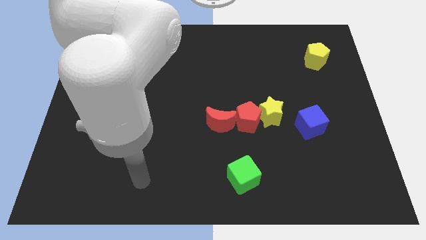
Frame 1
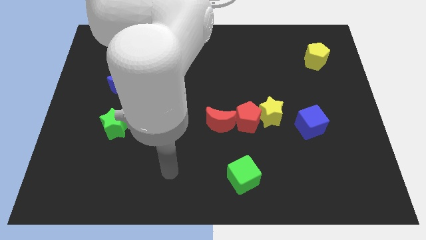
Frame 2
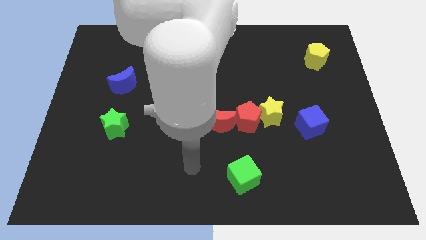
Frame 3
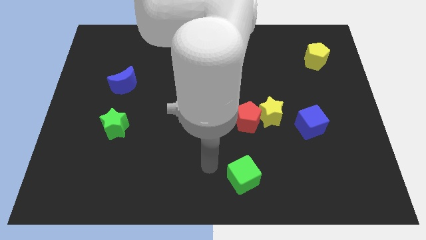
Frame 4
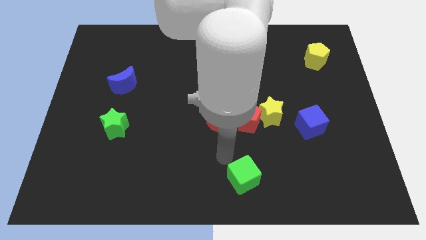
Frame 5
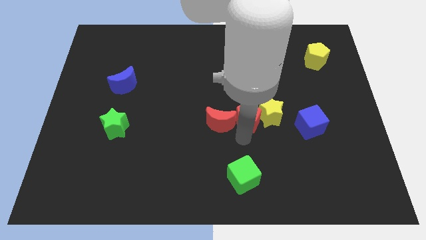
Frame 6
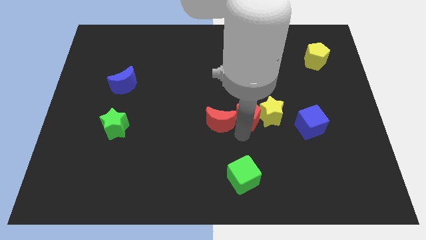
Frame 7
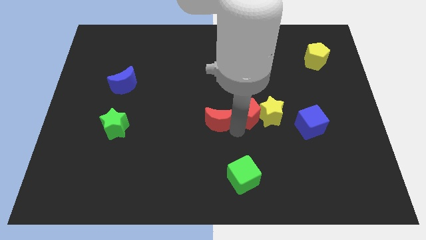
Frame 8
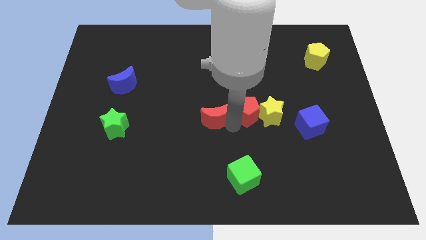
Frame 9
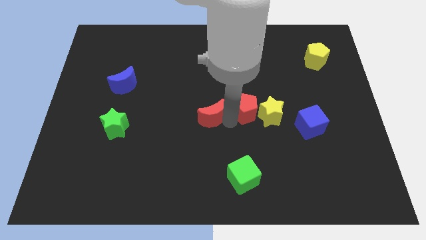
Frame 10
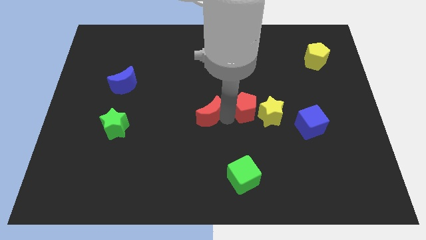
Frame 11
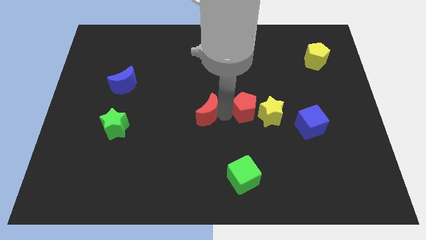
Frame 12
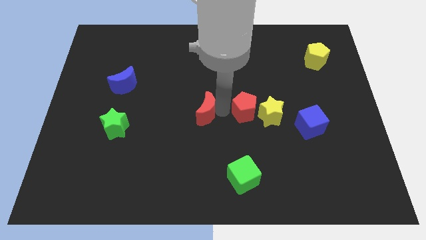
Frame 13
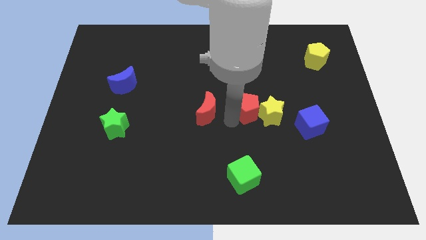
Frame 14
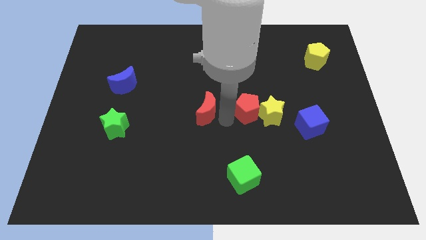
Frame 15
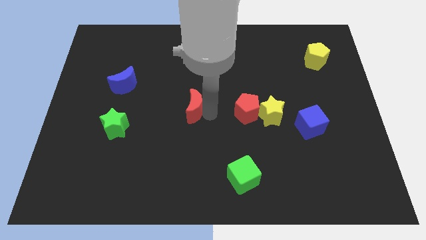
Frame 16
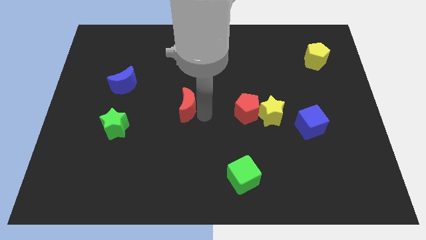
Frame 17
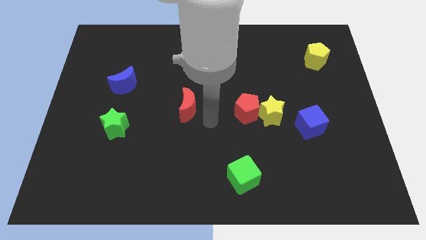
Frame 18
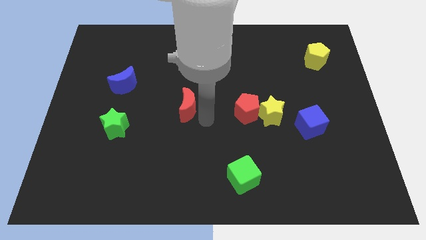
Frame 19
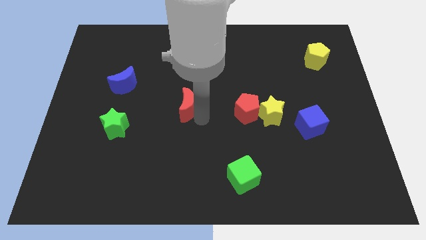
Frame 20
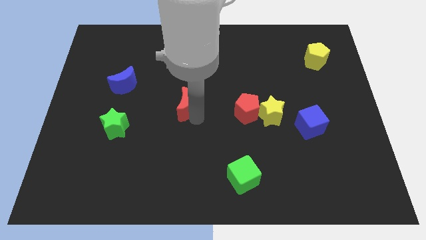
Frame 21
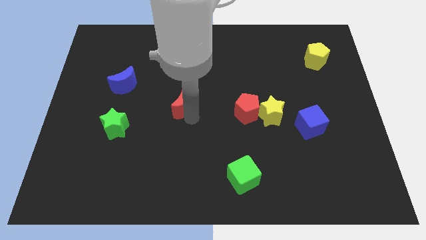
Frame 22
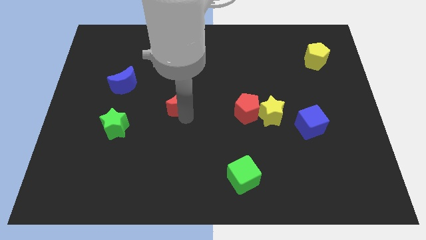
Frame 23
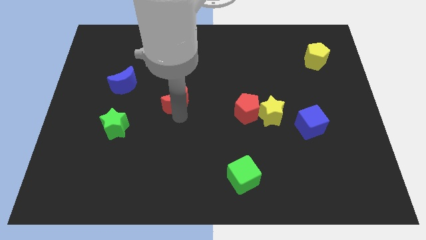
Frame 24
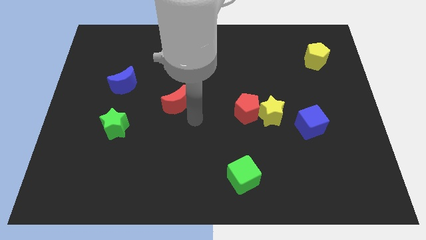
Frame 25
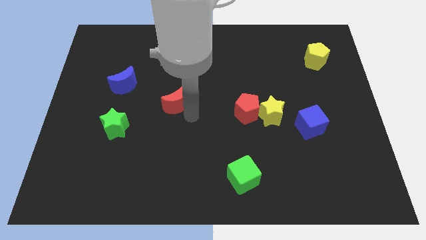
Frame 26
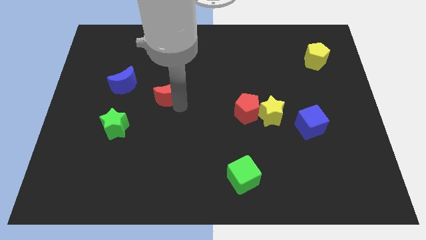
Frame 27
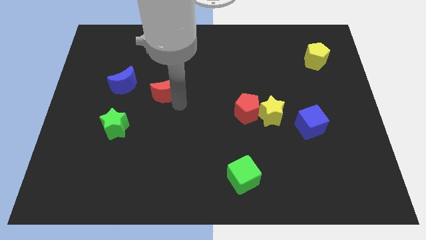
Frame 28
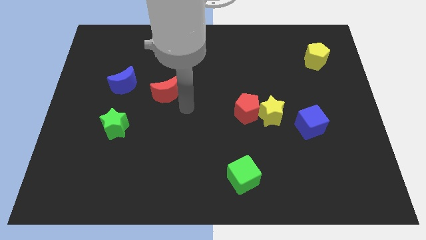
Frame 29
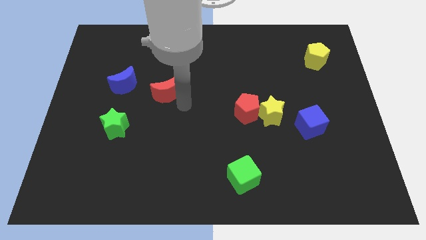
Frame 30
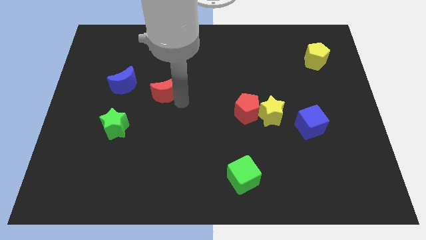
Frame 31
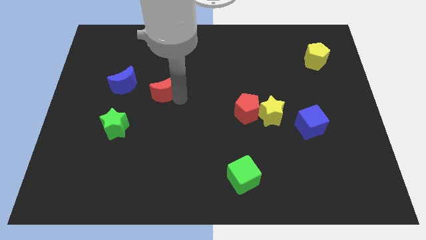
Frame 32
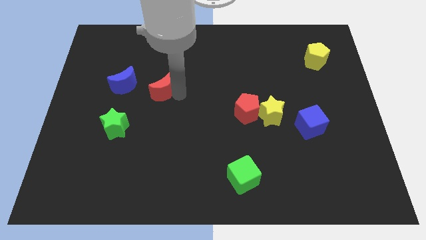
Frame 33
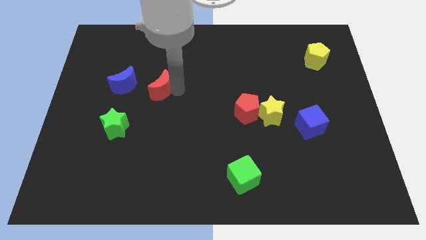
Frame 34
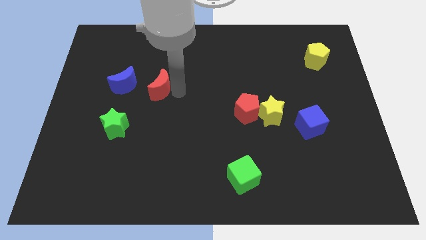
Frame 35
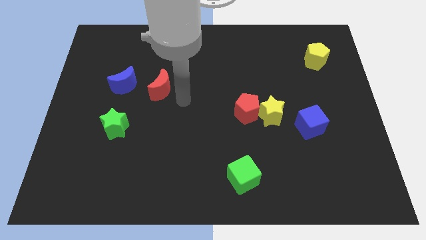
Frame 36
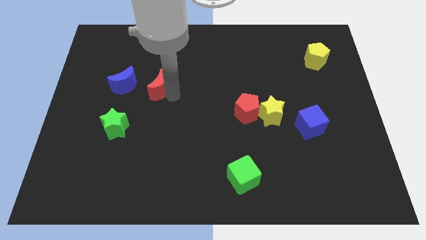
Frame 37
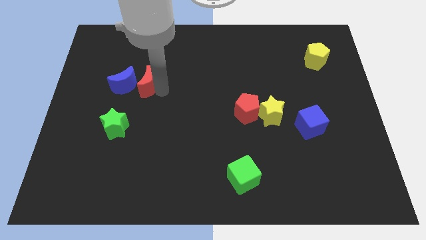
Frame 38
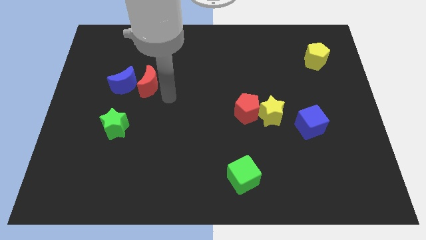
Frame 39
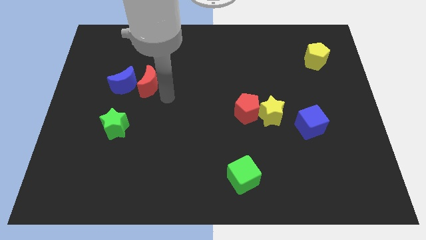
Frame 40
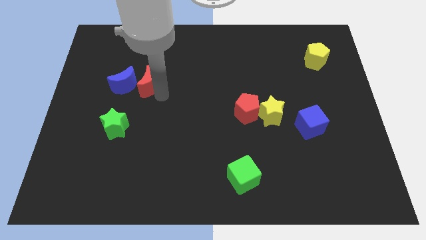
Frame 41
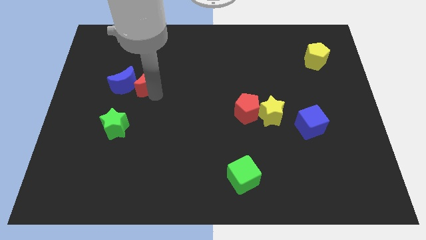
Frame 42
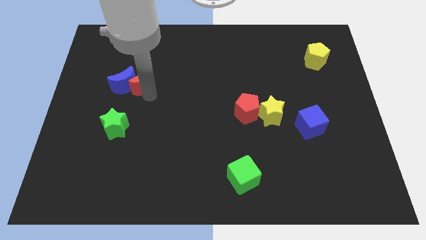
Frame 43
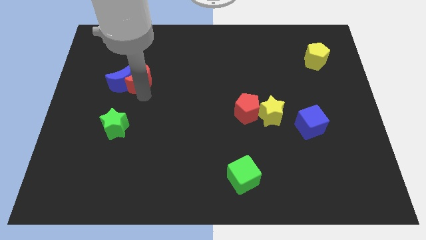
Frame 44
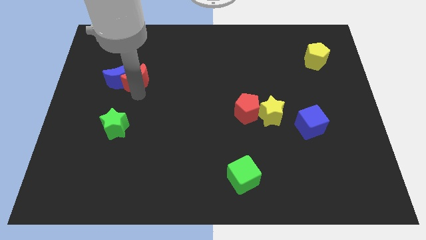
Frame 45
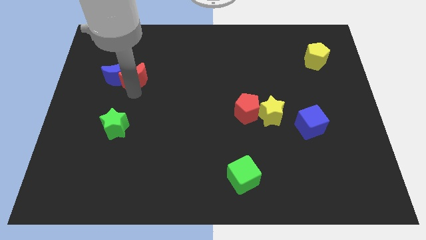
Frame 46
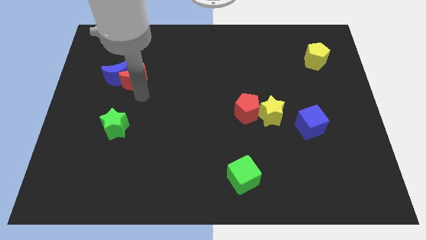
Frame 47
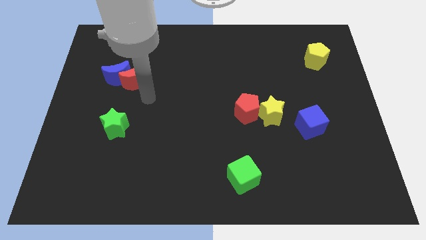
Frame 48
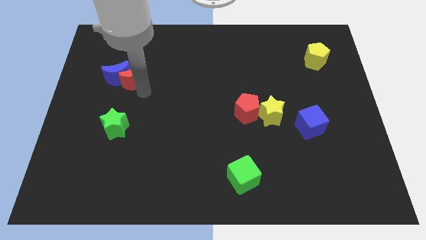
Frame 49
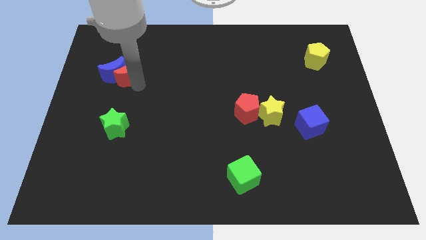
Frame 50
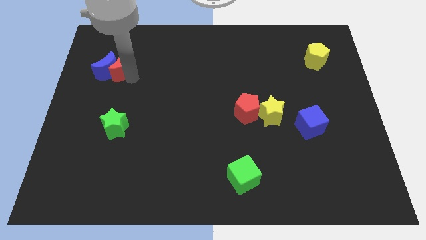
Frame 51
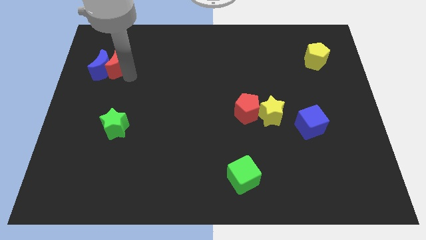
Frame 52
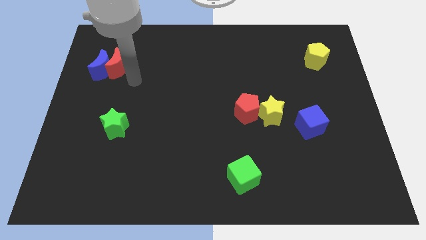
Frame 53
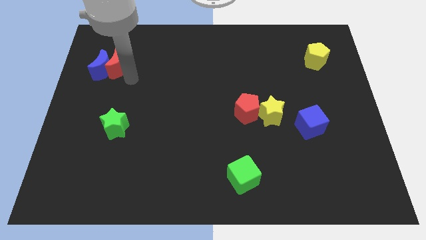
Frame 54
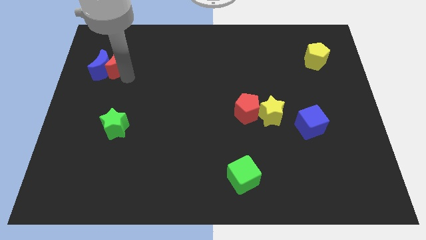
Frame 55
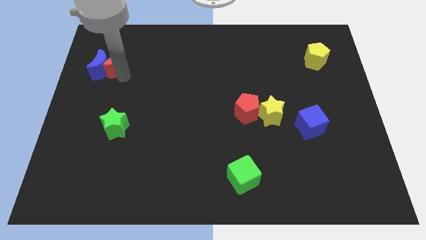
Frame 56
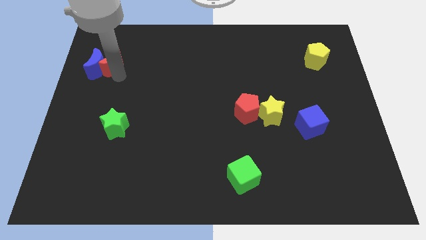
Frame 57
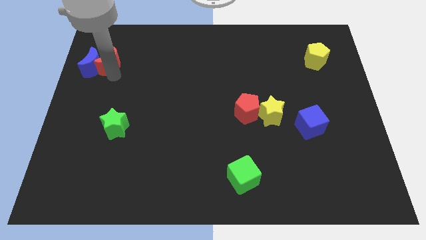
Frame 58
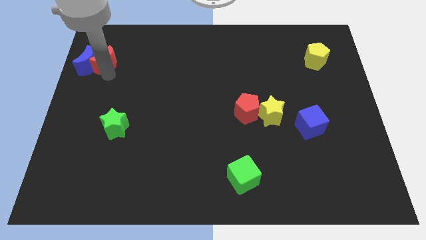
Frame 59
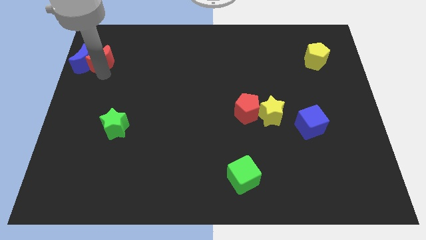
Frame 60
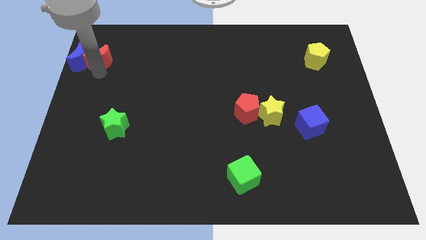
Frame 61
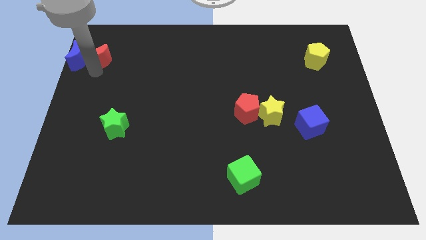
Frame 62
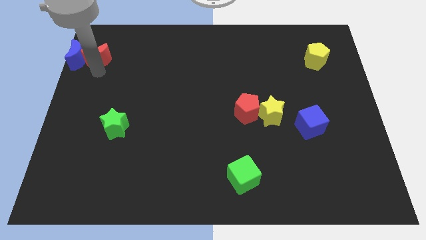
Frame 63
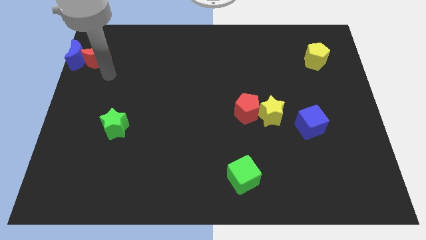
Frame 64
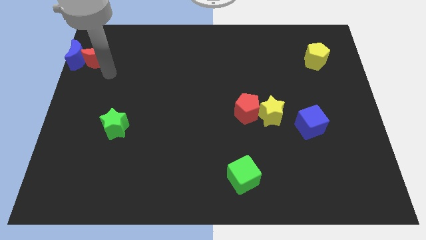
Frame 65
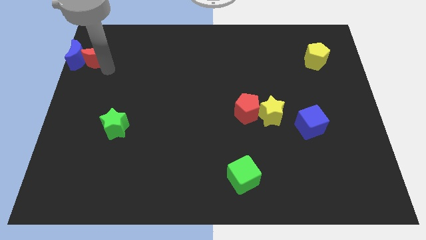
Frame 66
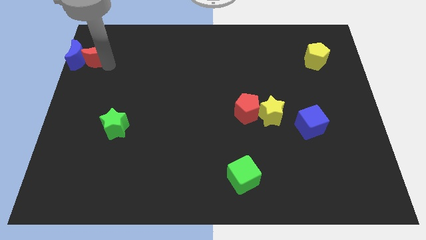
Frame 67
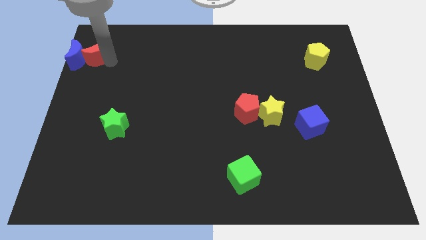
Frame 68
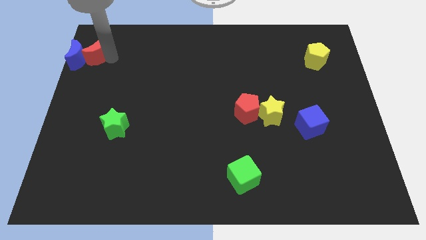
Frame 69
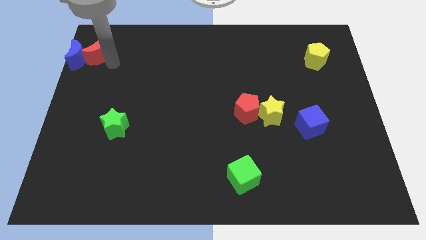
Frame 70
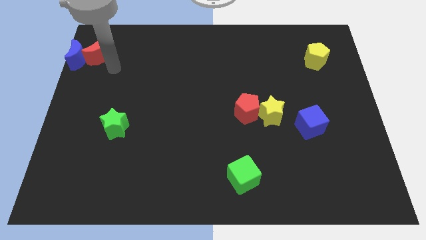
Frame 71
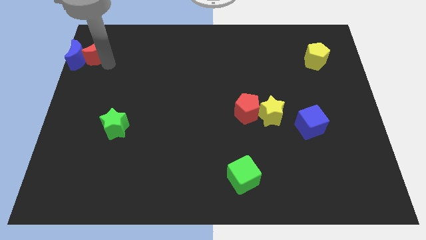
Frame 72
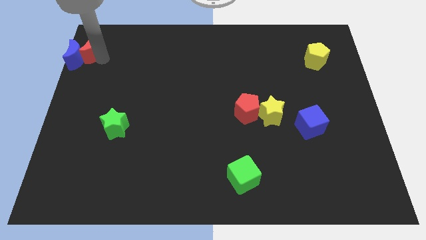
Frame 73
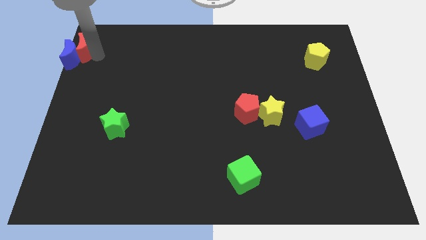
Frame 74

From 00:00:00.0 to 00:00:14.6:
slide the red moon to the upper left corner
